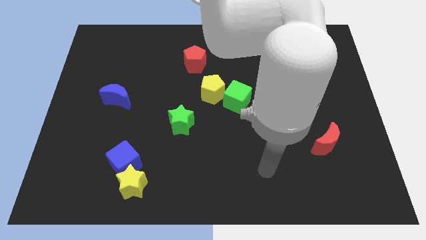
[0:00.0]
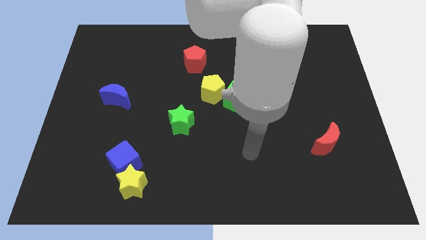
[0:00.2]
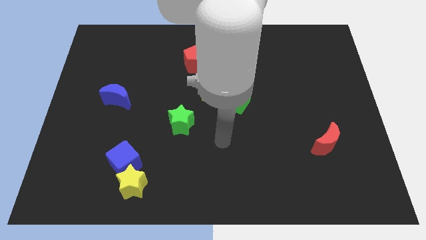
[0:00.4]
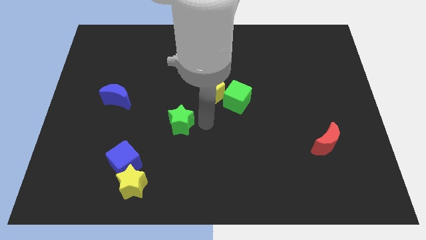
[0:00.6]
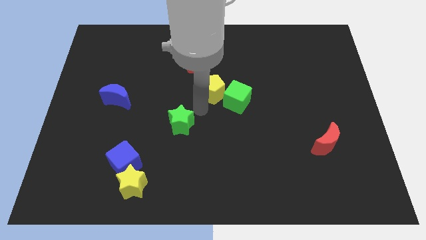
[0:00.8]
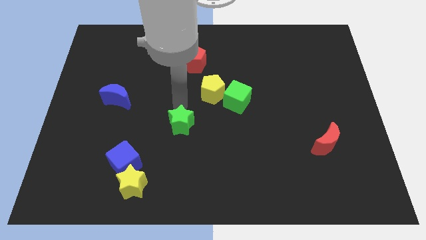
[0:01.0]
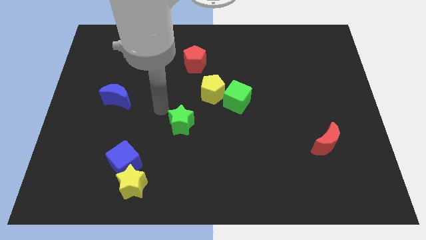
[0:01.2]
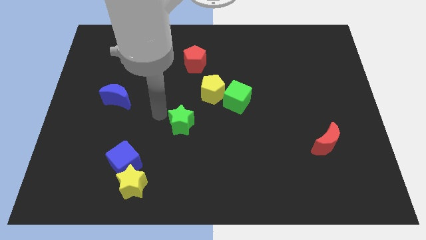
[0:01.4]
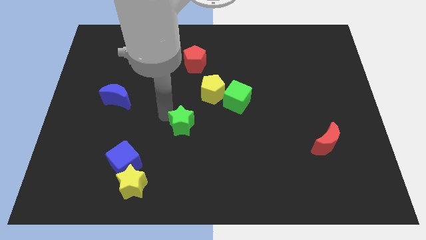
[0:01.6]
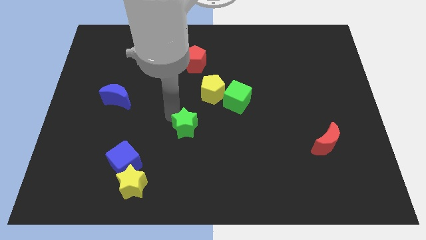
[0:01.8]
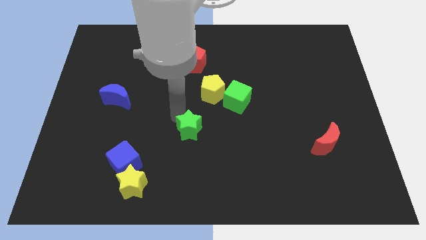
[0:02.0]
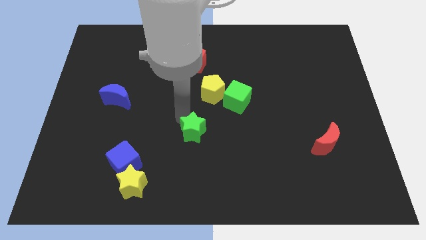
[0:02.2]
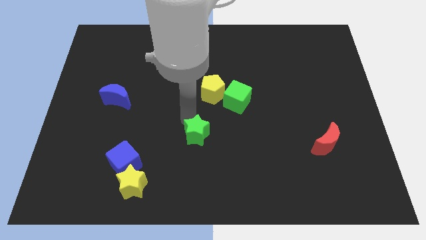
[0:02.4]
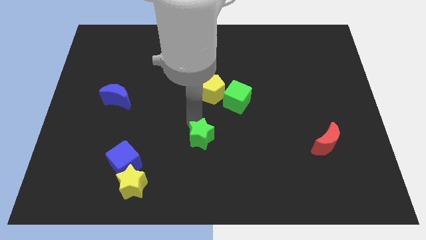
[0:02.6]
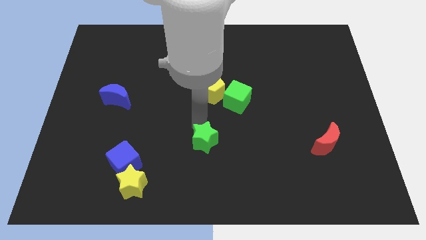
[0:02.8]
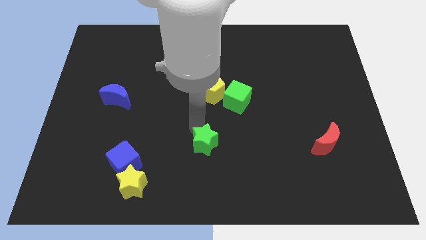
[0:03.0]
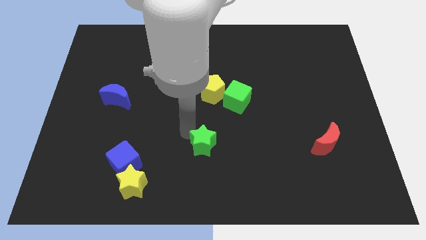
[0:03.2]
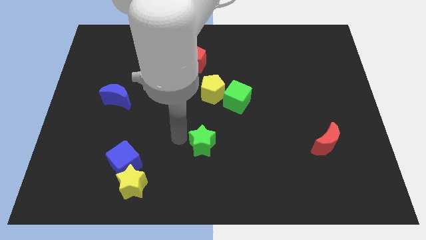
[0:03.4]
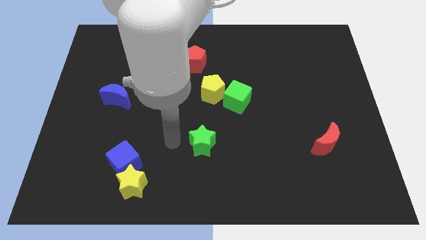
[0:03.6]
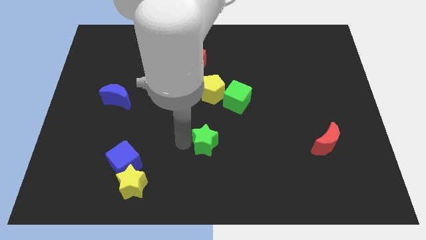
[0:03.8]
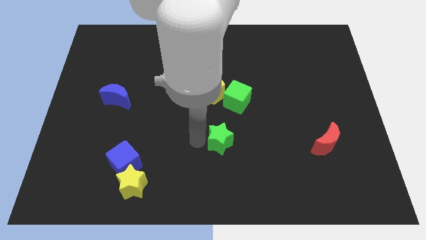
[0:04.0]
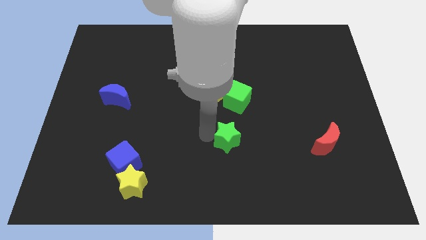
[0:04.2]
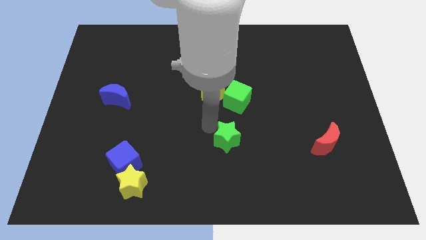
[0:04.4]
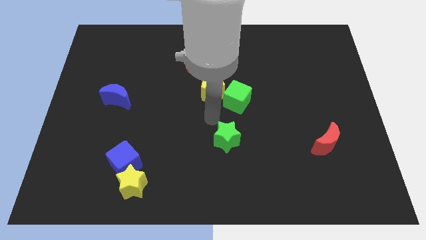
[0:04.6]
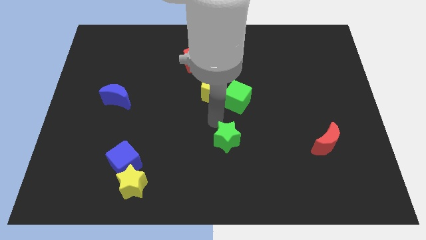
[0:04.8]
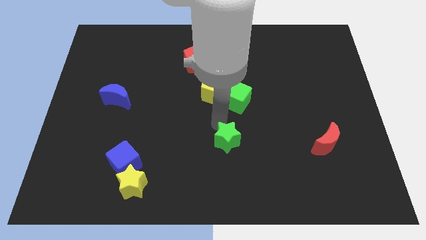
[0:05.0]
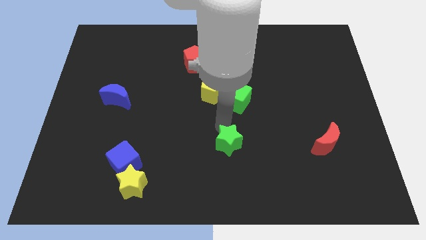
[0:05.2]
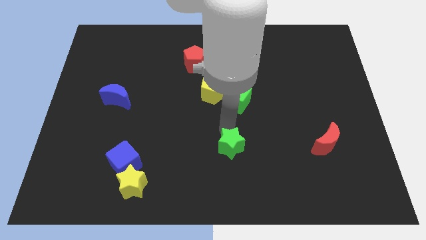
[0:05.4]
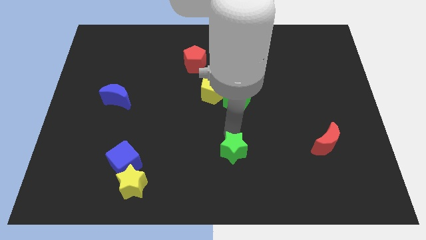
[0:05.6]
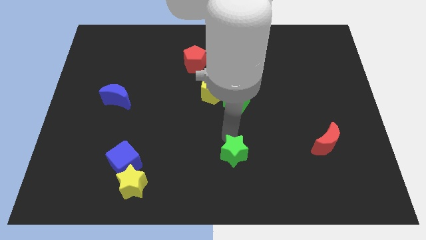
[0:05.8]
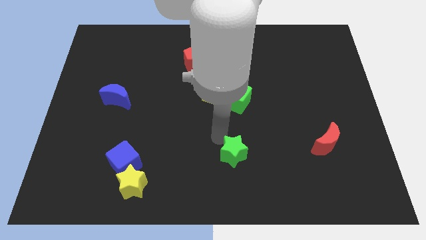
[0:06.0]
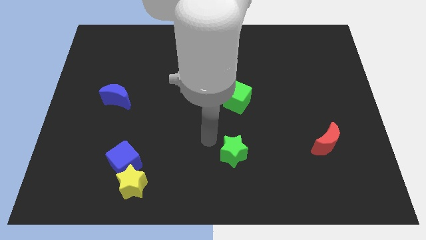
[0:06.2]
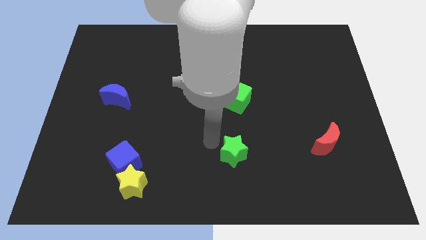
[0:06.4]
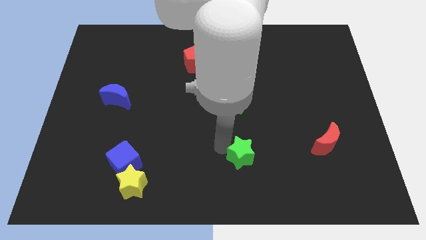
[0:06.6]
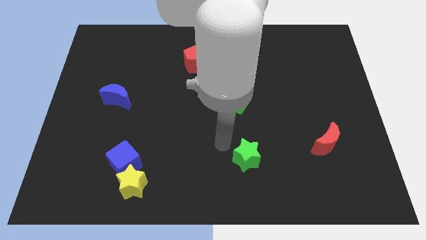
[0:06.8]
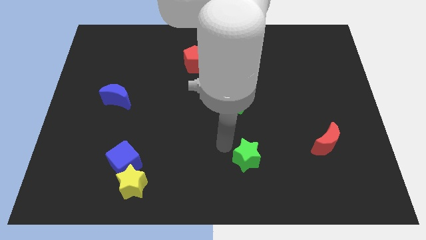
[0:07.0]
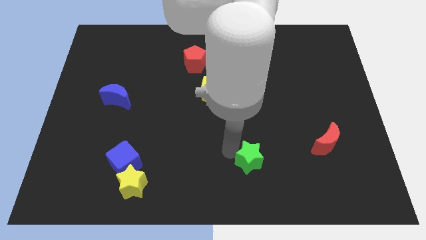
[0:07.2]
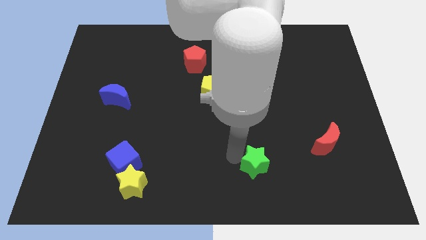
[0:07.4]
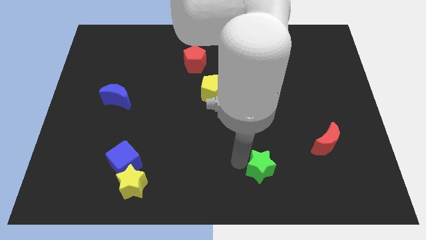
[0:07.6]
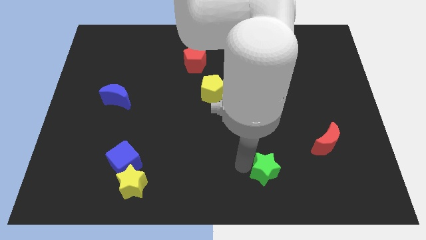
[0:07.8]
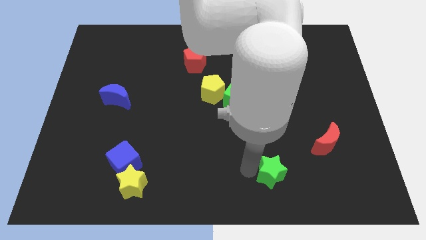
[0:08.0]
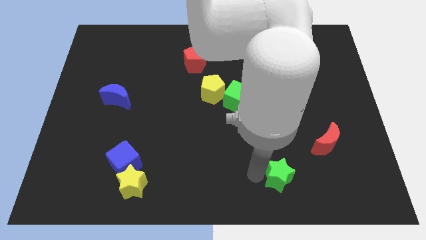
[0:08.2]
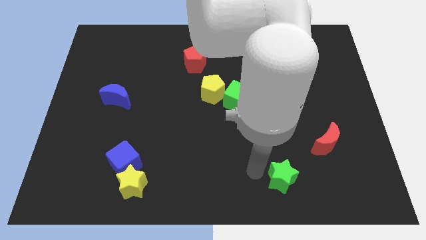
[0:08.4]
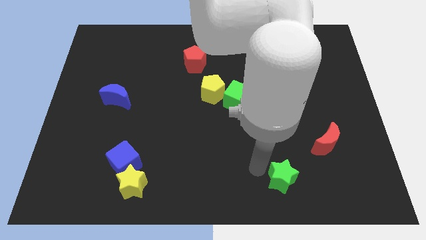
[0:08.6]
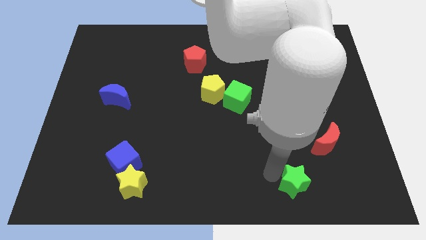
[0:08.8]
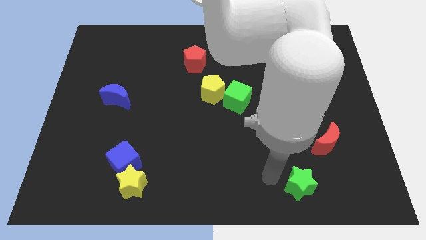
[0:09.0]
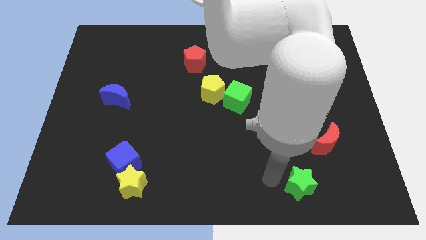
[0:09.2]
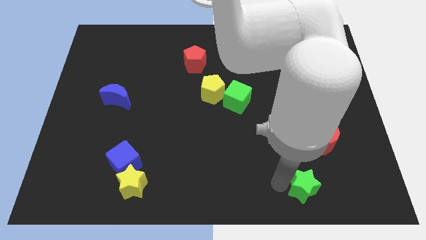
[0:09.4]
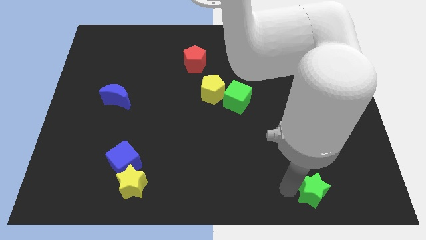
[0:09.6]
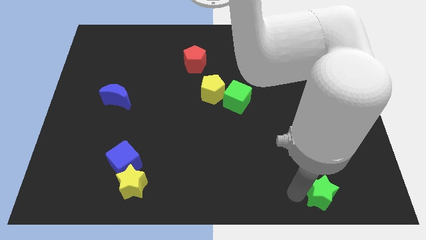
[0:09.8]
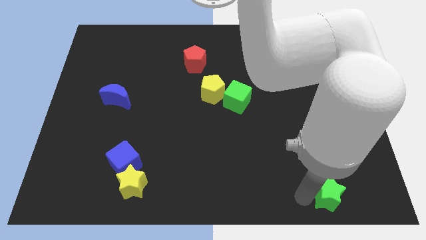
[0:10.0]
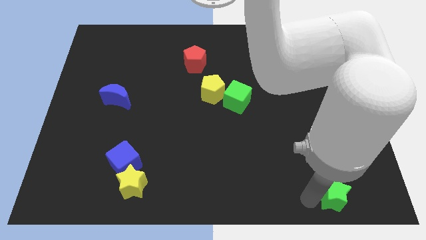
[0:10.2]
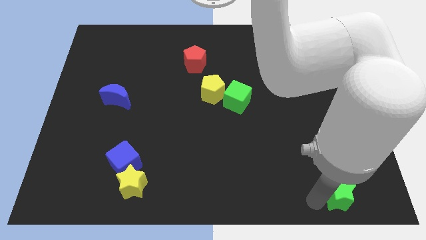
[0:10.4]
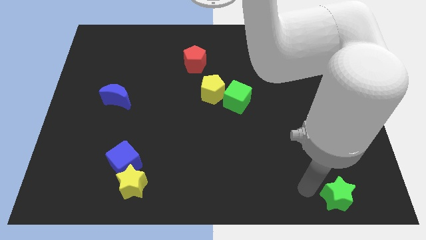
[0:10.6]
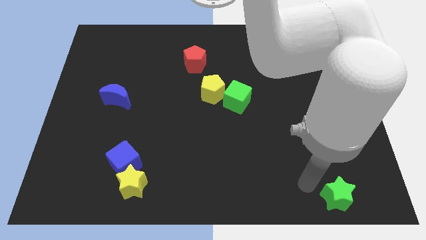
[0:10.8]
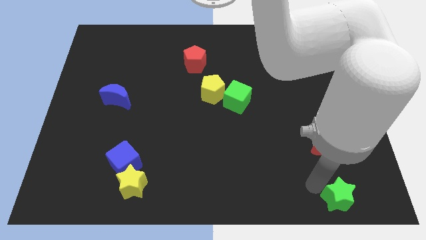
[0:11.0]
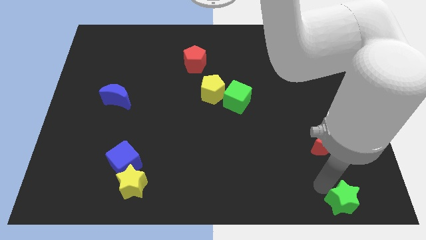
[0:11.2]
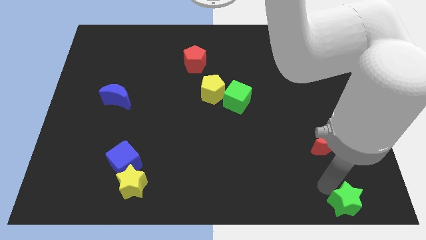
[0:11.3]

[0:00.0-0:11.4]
move the green star to the bottom right of the board

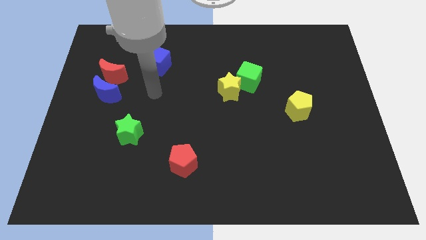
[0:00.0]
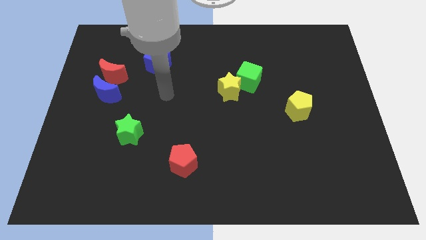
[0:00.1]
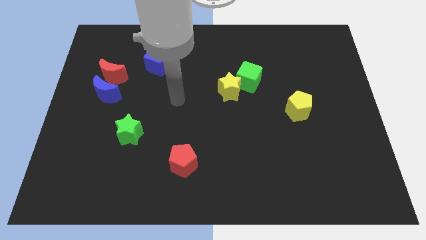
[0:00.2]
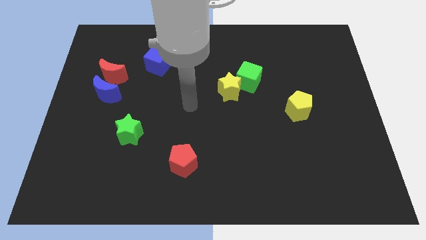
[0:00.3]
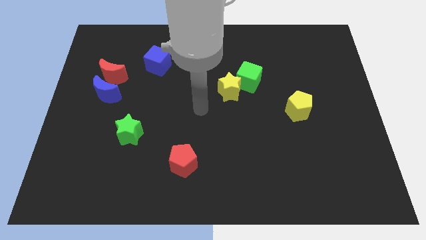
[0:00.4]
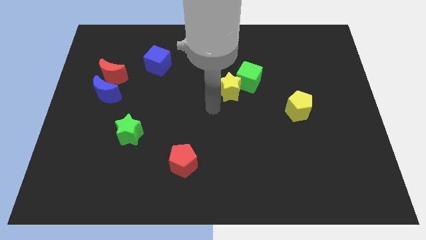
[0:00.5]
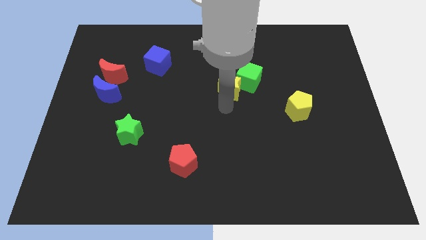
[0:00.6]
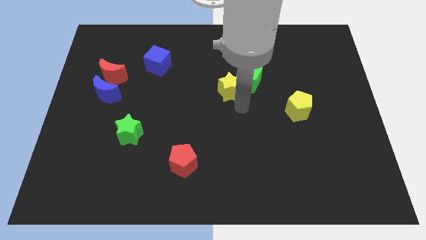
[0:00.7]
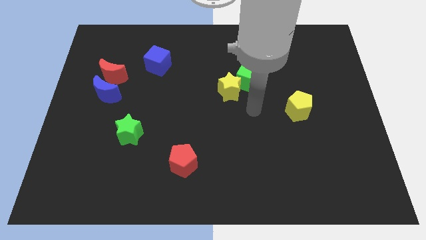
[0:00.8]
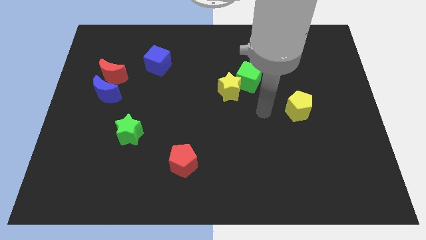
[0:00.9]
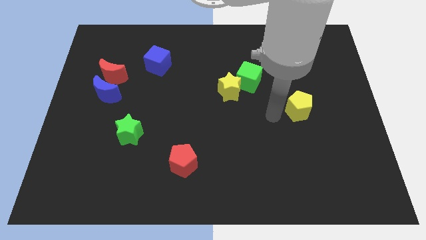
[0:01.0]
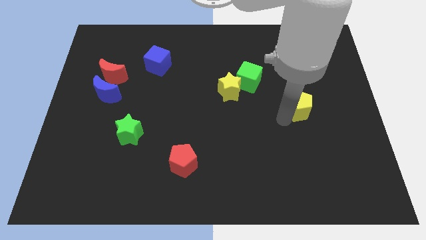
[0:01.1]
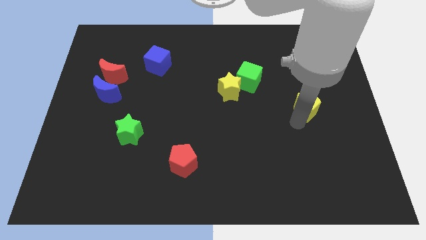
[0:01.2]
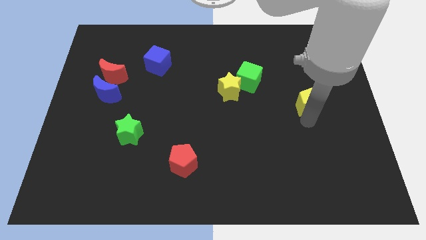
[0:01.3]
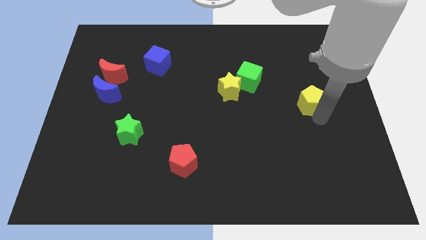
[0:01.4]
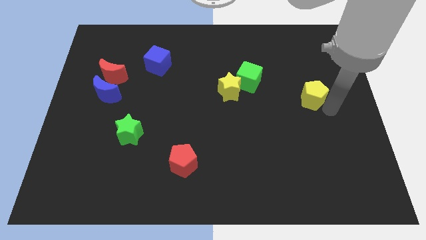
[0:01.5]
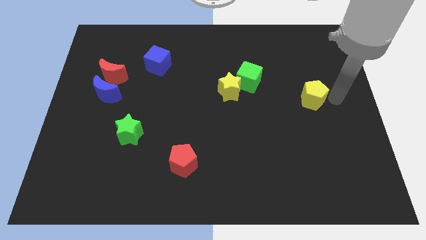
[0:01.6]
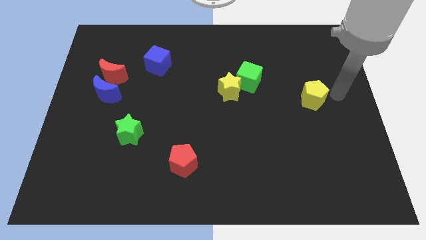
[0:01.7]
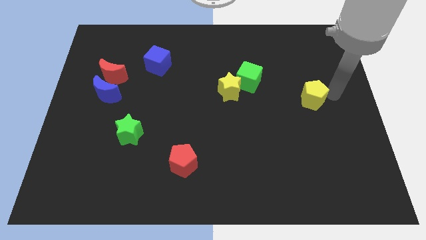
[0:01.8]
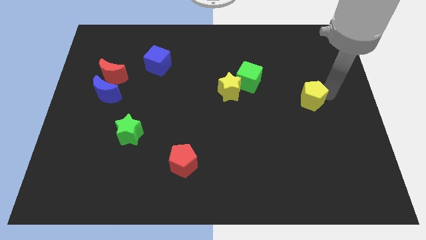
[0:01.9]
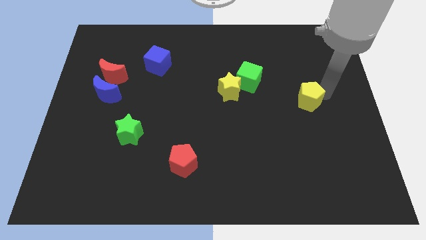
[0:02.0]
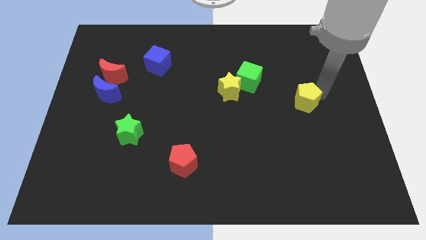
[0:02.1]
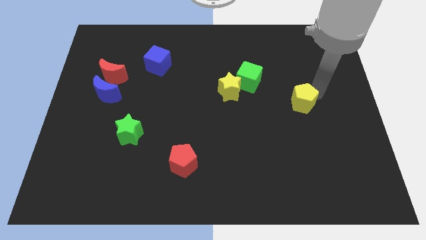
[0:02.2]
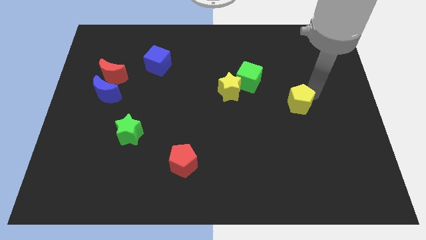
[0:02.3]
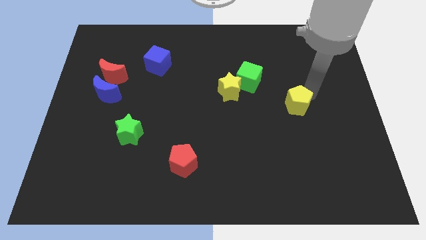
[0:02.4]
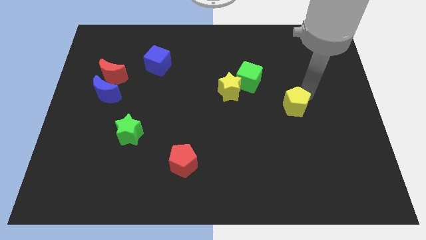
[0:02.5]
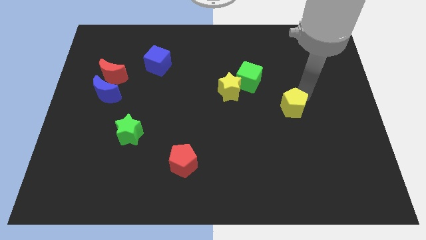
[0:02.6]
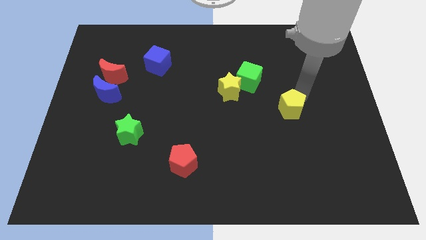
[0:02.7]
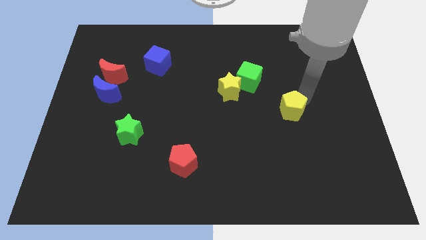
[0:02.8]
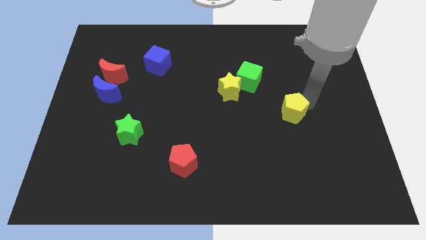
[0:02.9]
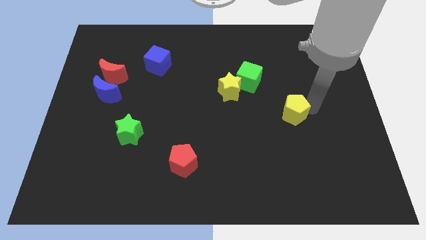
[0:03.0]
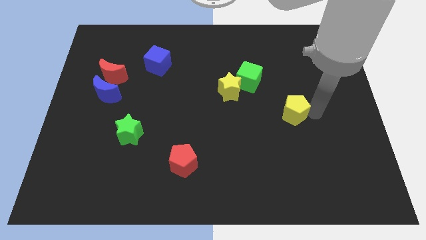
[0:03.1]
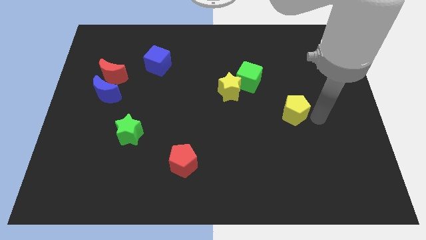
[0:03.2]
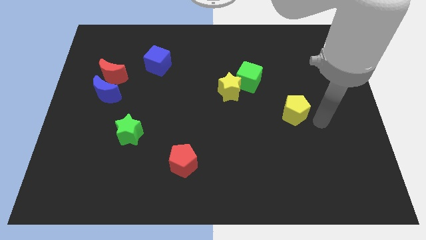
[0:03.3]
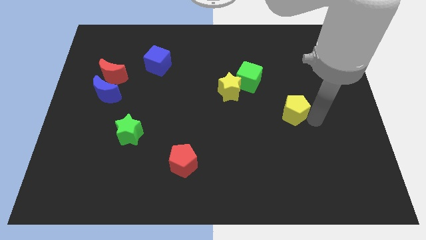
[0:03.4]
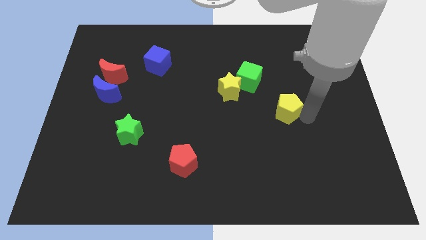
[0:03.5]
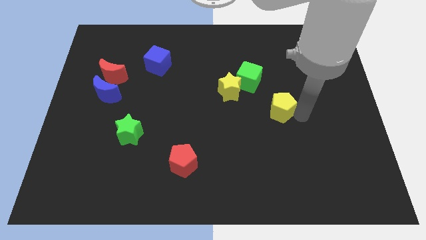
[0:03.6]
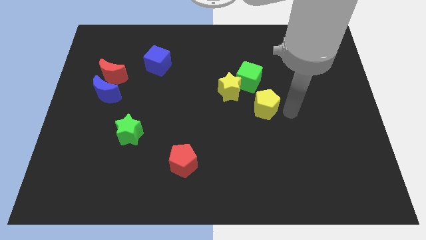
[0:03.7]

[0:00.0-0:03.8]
push the yellow pentagon to the center of the board
